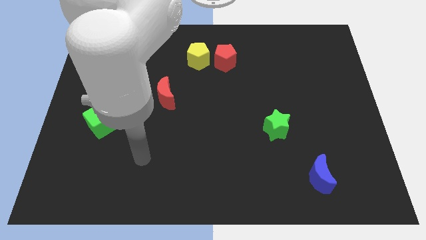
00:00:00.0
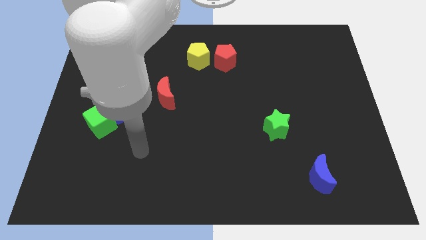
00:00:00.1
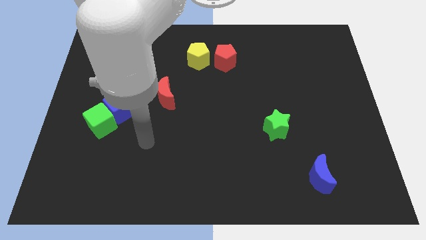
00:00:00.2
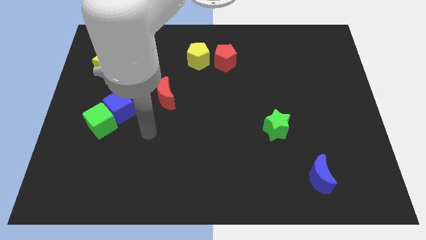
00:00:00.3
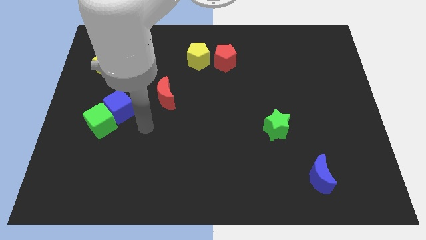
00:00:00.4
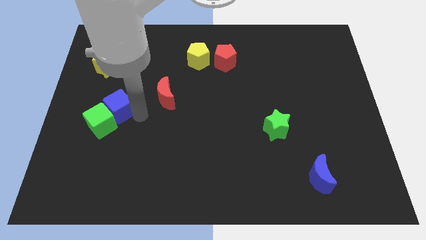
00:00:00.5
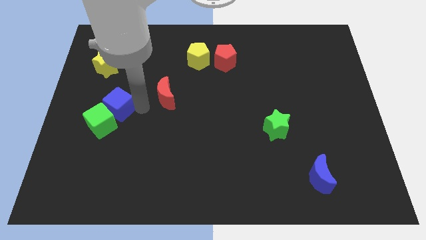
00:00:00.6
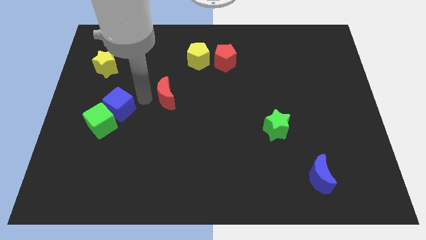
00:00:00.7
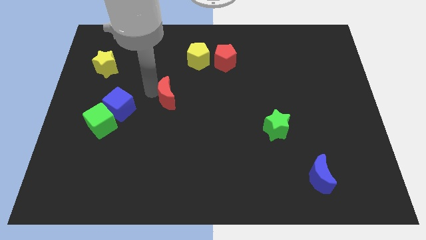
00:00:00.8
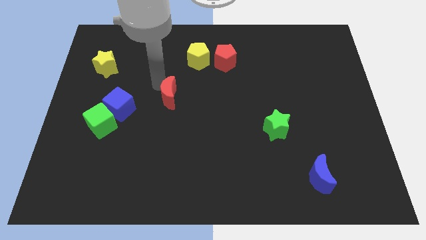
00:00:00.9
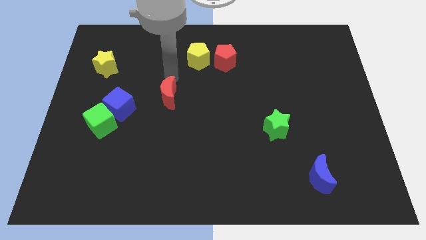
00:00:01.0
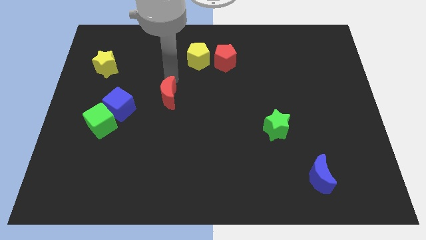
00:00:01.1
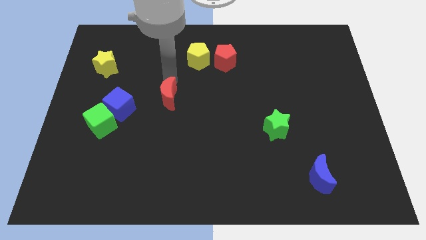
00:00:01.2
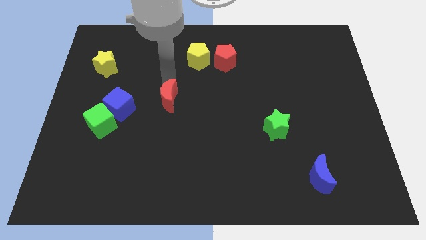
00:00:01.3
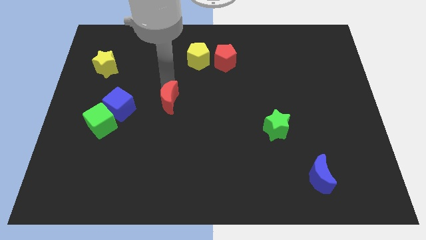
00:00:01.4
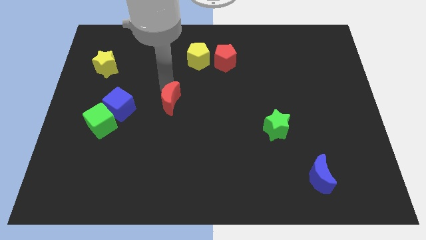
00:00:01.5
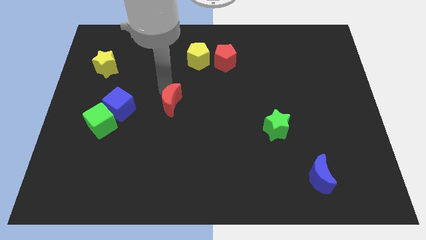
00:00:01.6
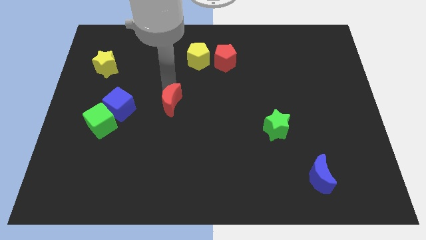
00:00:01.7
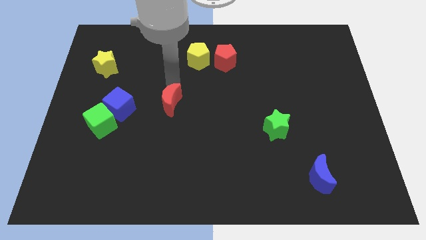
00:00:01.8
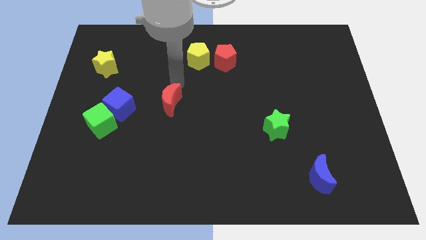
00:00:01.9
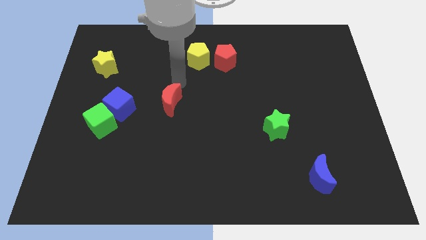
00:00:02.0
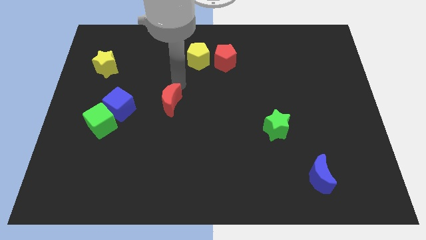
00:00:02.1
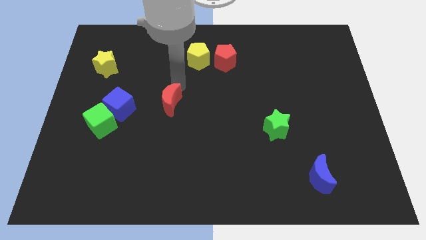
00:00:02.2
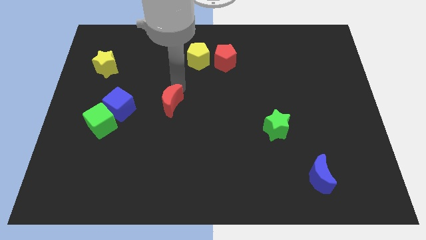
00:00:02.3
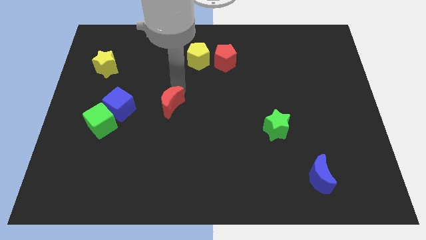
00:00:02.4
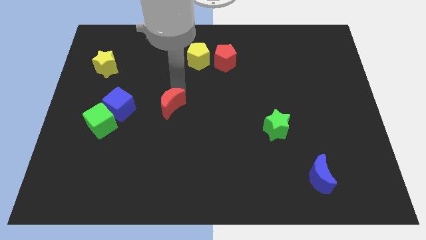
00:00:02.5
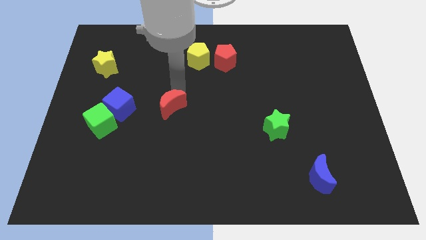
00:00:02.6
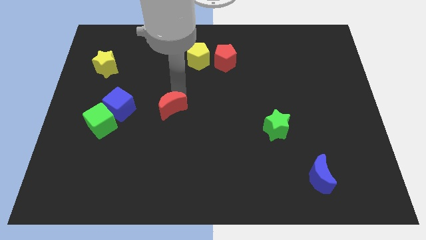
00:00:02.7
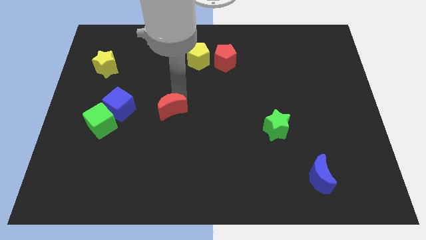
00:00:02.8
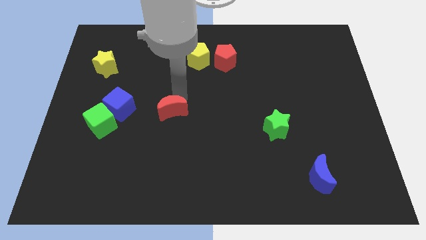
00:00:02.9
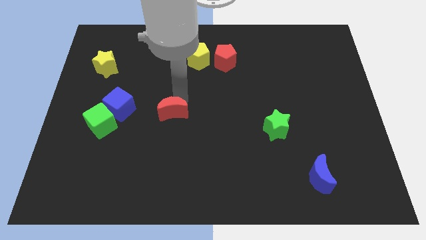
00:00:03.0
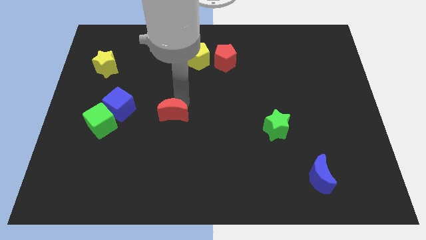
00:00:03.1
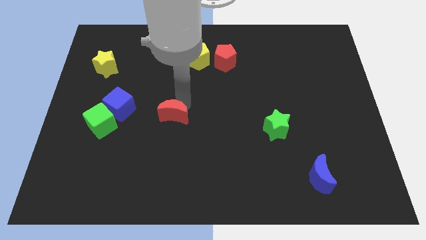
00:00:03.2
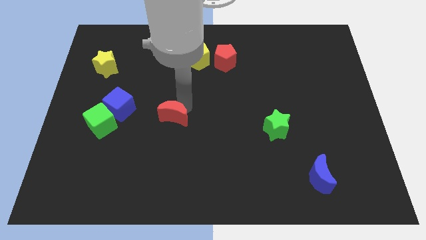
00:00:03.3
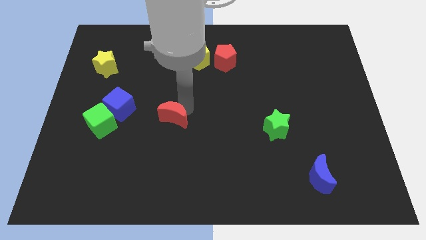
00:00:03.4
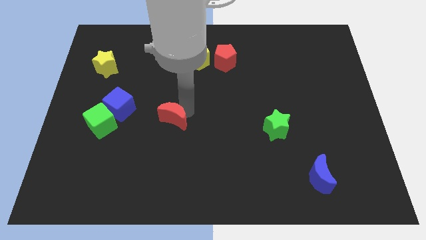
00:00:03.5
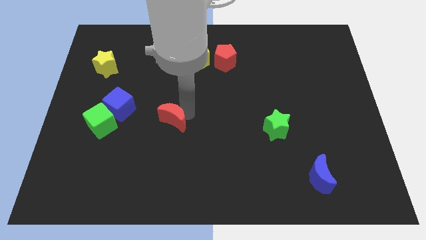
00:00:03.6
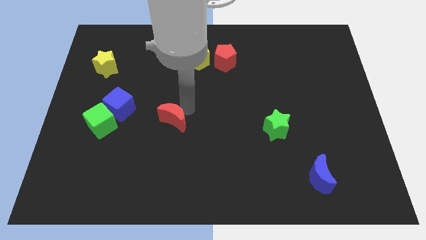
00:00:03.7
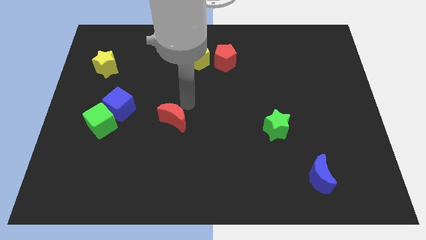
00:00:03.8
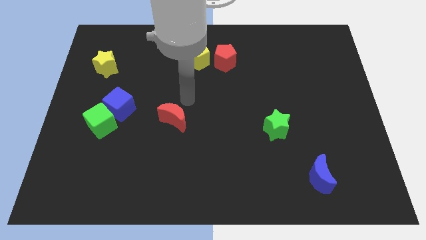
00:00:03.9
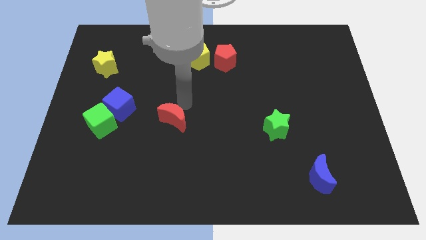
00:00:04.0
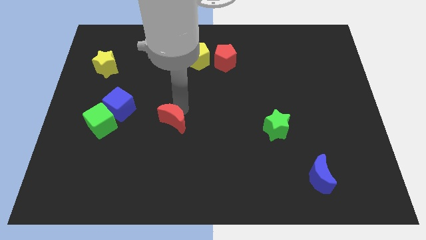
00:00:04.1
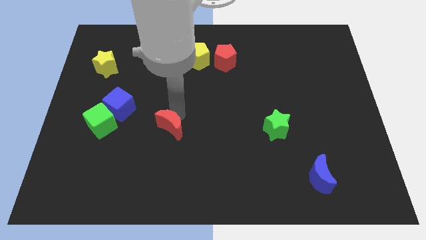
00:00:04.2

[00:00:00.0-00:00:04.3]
slide the red moon slightly down

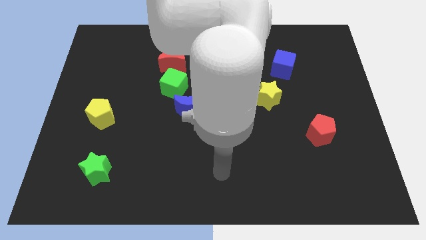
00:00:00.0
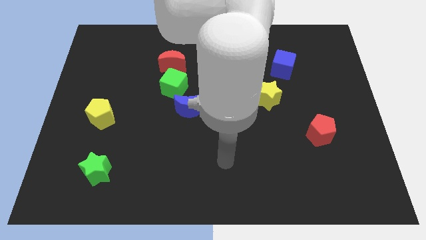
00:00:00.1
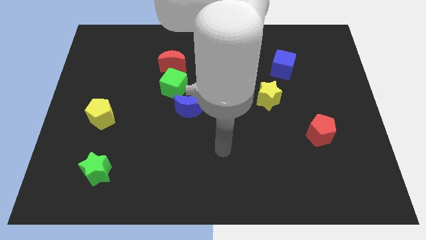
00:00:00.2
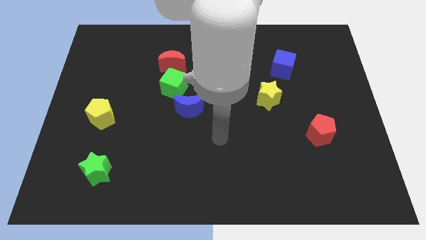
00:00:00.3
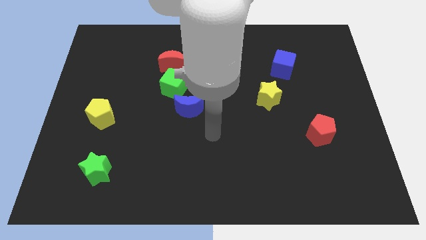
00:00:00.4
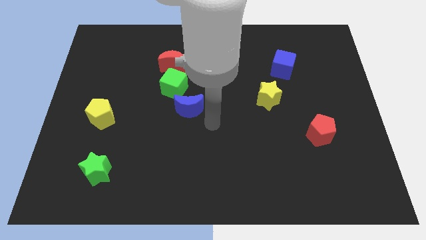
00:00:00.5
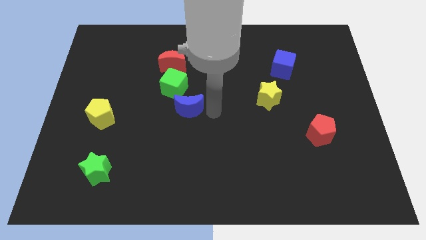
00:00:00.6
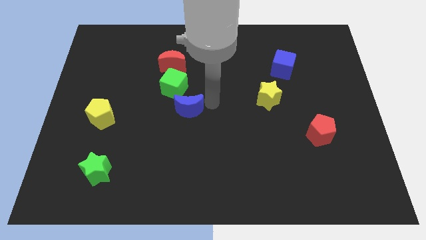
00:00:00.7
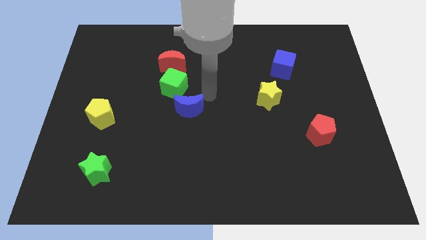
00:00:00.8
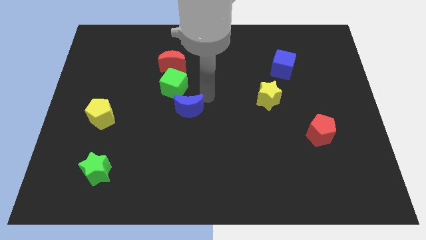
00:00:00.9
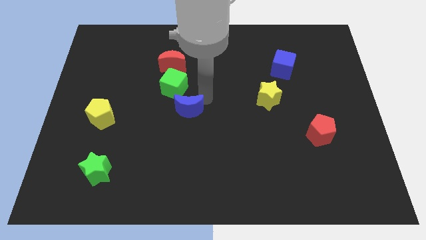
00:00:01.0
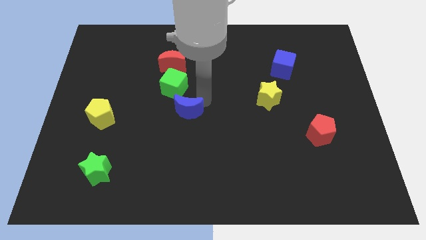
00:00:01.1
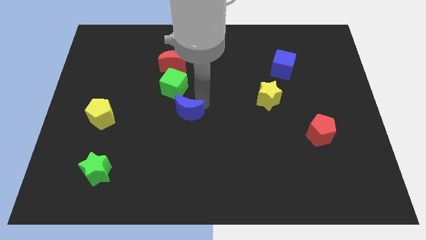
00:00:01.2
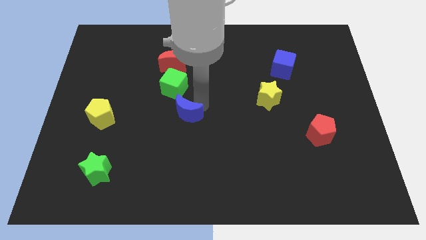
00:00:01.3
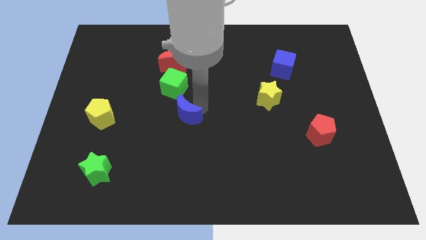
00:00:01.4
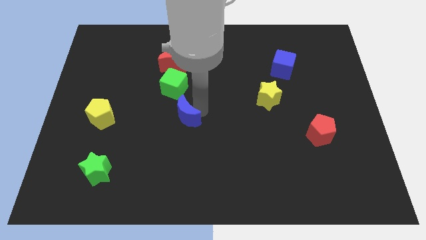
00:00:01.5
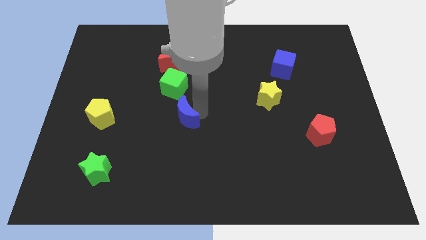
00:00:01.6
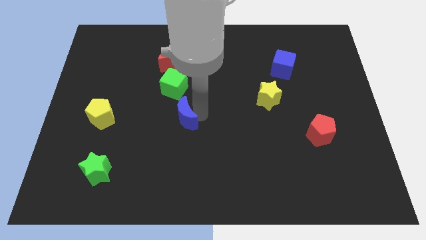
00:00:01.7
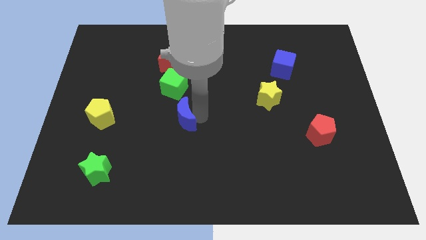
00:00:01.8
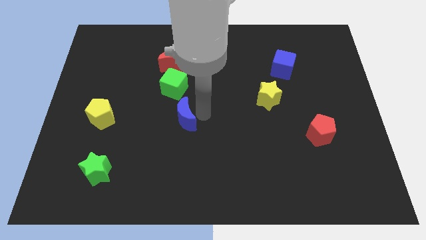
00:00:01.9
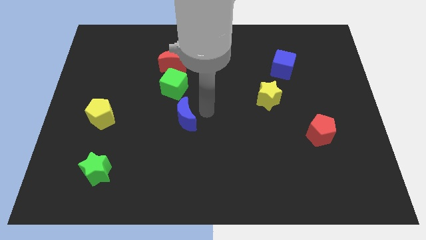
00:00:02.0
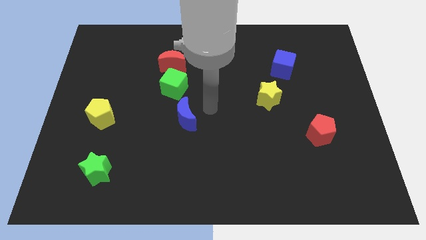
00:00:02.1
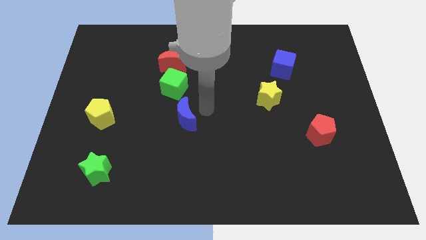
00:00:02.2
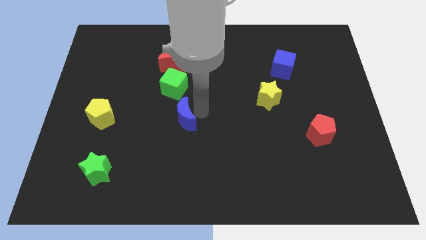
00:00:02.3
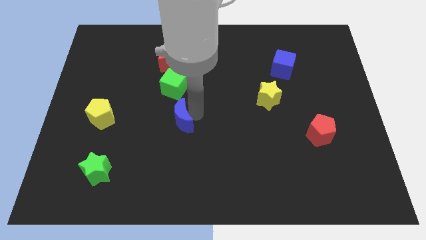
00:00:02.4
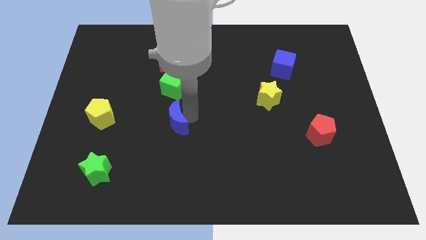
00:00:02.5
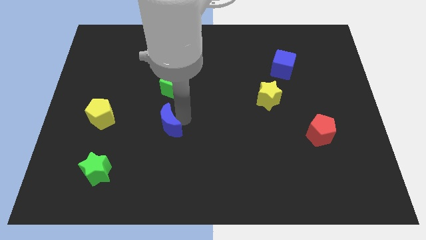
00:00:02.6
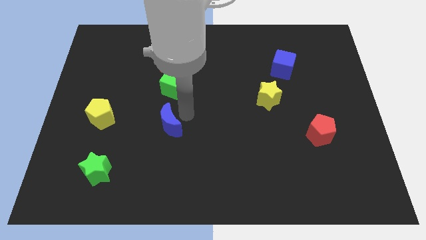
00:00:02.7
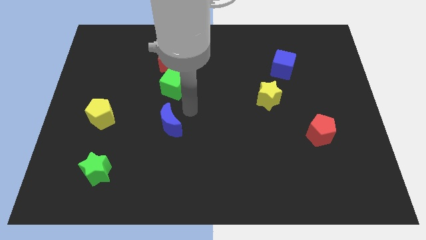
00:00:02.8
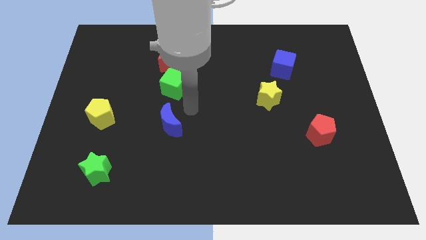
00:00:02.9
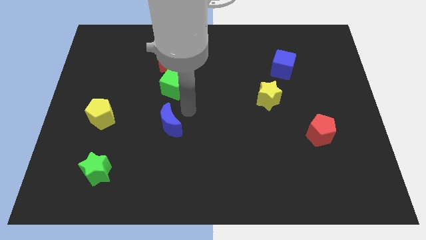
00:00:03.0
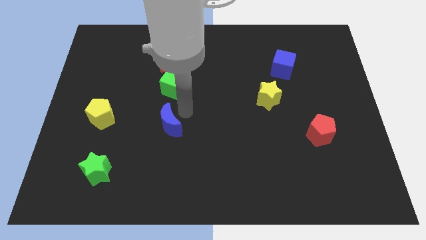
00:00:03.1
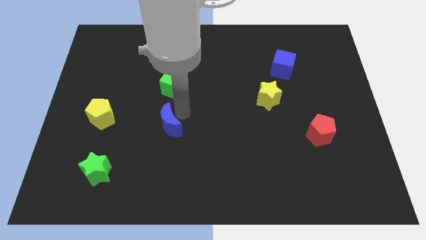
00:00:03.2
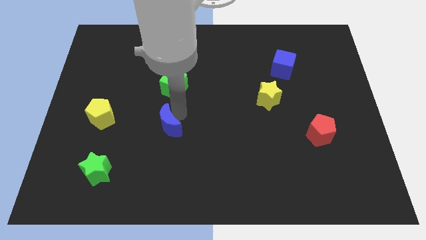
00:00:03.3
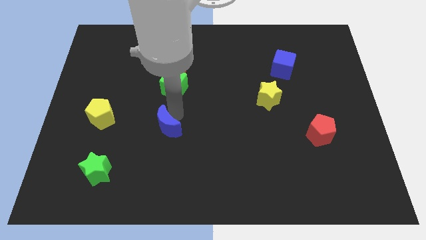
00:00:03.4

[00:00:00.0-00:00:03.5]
slightly push the blue moon down and left

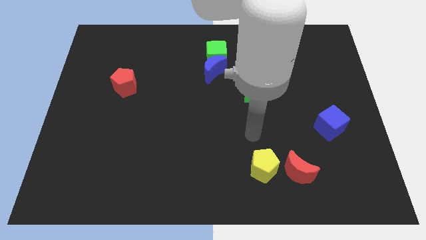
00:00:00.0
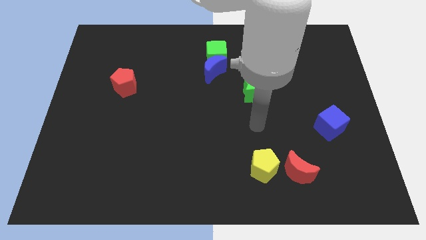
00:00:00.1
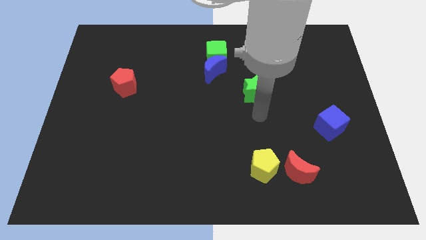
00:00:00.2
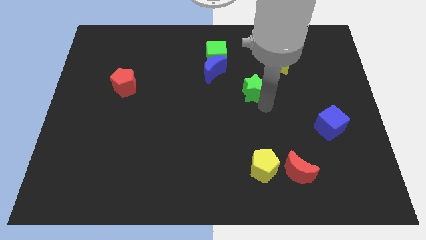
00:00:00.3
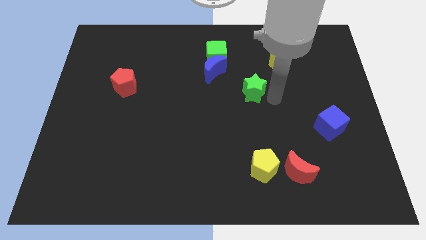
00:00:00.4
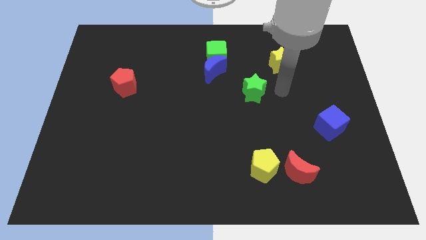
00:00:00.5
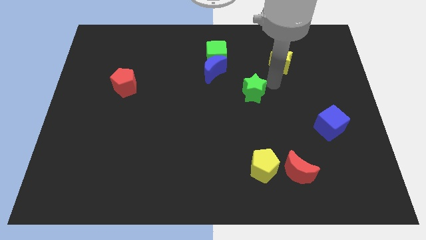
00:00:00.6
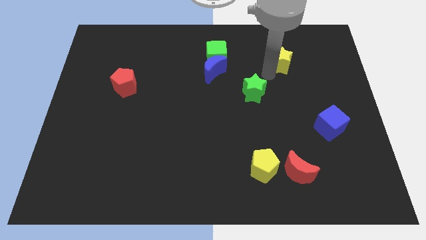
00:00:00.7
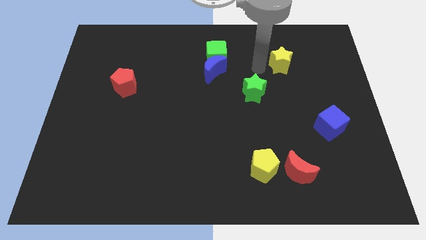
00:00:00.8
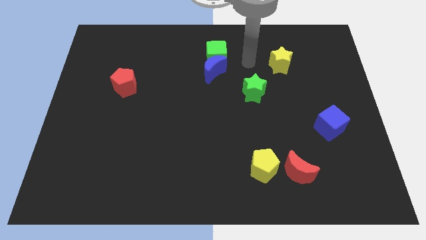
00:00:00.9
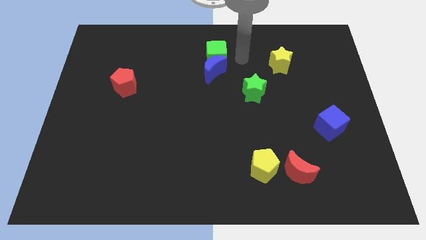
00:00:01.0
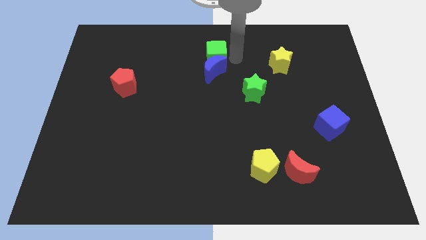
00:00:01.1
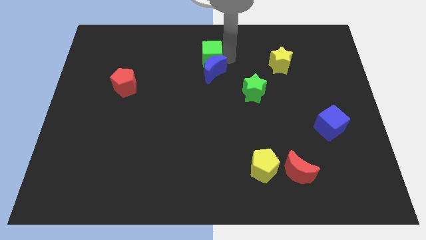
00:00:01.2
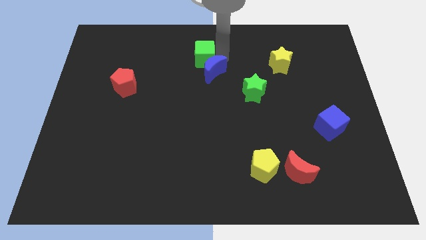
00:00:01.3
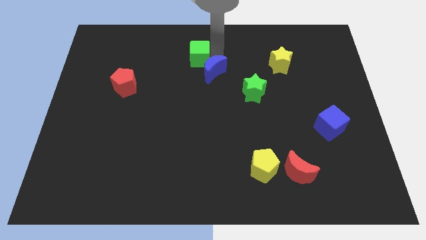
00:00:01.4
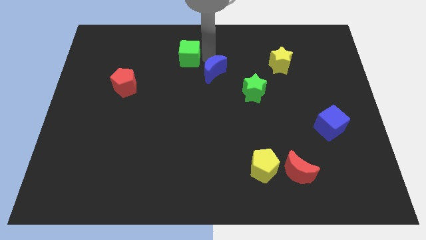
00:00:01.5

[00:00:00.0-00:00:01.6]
move the green cube slightly left
